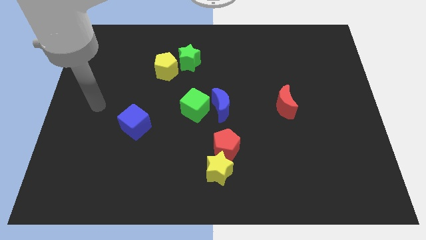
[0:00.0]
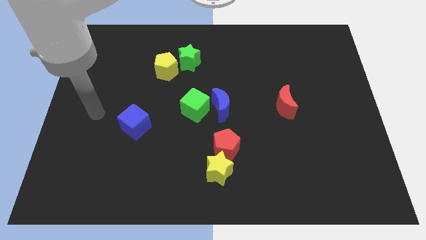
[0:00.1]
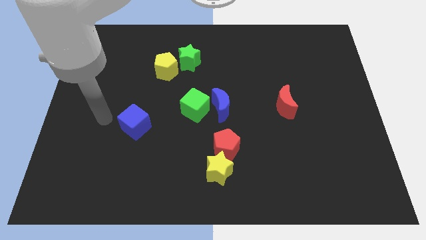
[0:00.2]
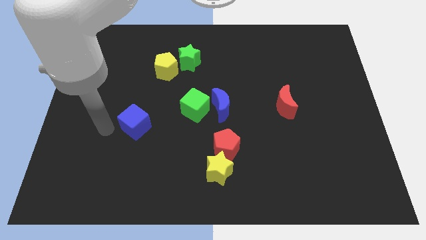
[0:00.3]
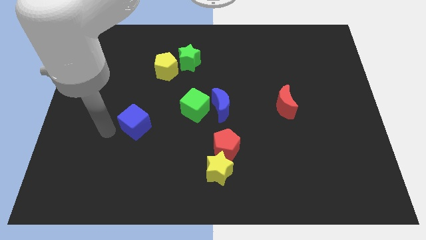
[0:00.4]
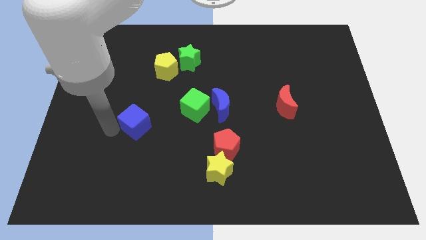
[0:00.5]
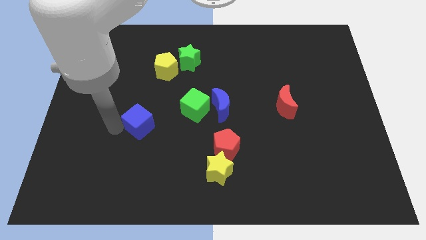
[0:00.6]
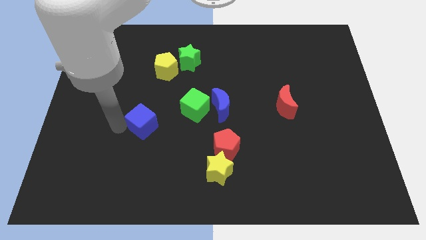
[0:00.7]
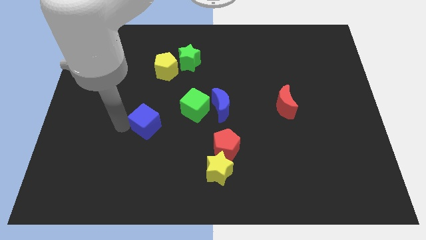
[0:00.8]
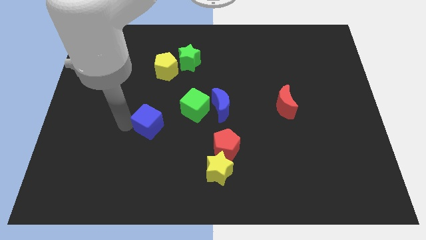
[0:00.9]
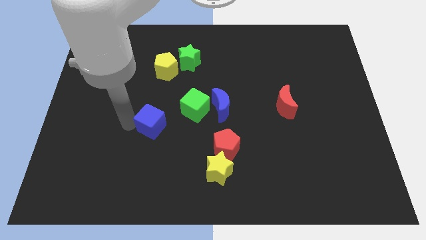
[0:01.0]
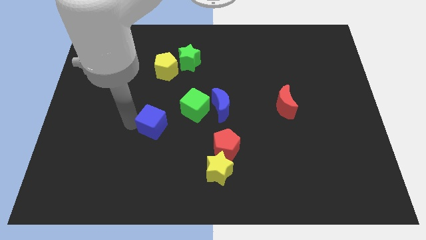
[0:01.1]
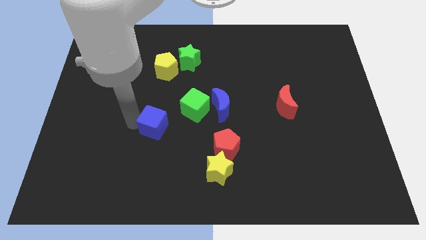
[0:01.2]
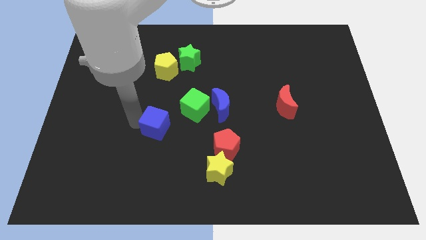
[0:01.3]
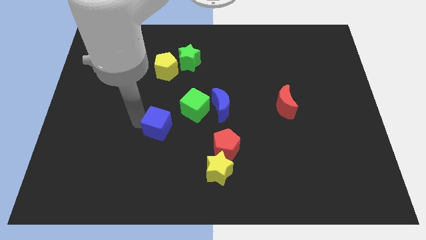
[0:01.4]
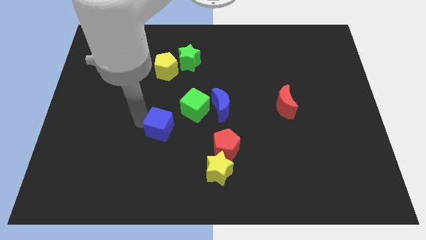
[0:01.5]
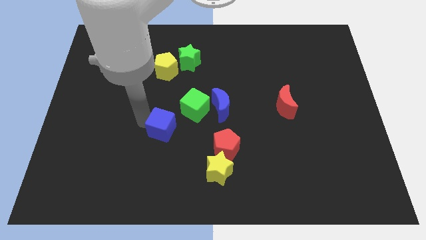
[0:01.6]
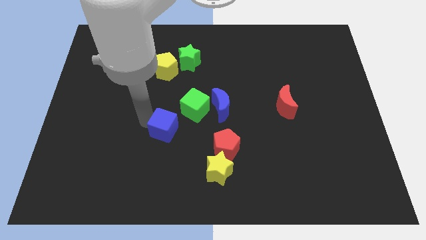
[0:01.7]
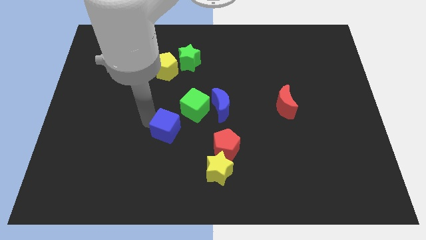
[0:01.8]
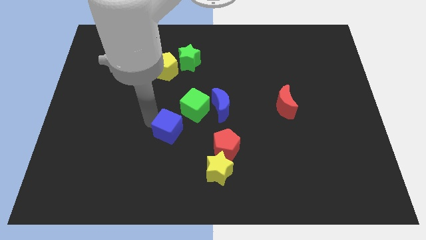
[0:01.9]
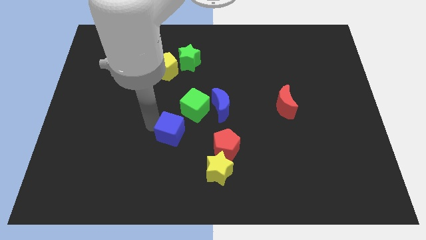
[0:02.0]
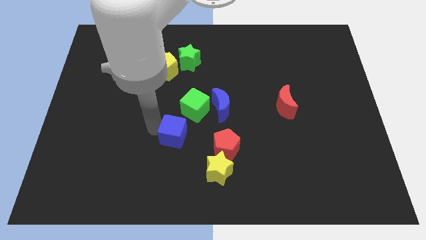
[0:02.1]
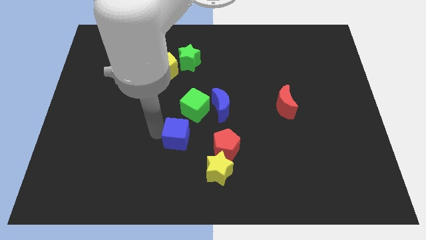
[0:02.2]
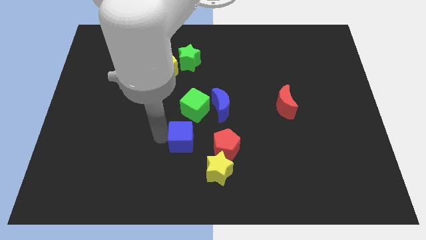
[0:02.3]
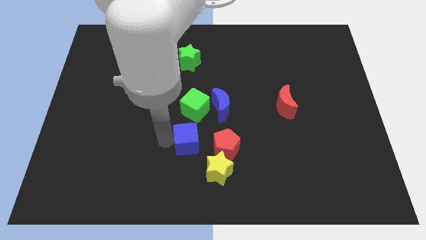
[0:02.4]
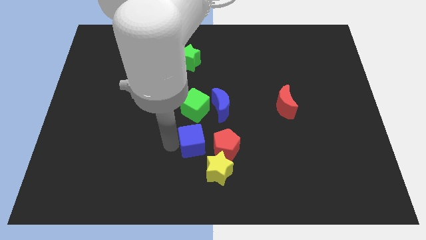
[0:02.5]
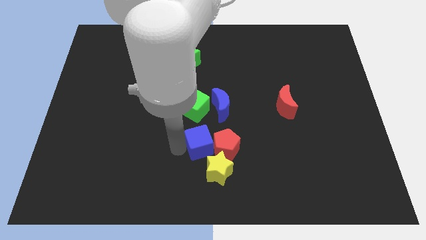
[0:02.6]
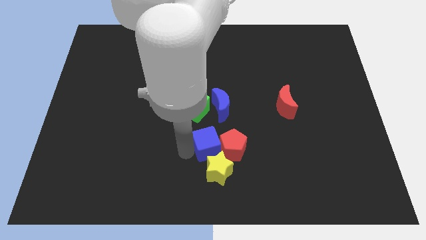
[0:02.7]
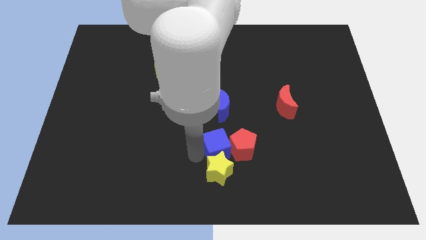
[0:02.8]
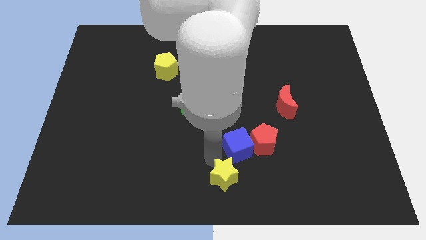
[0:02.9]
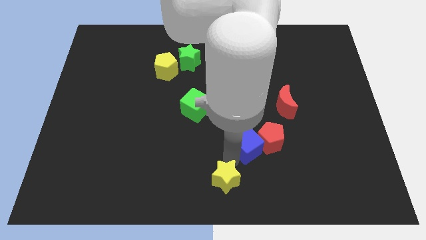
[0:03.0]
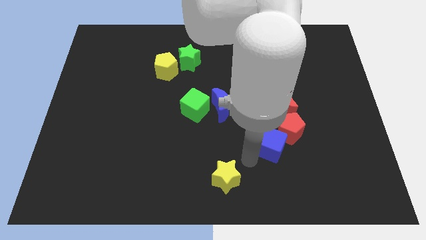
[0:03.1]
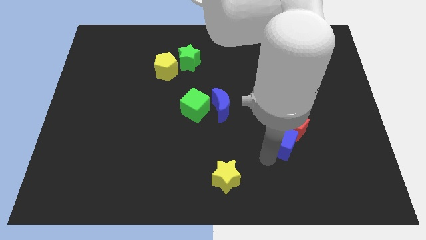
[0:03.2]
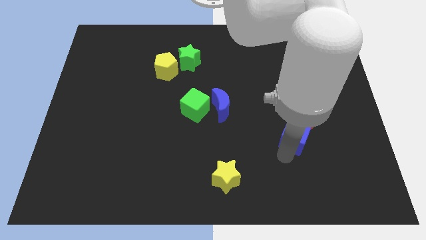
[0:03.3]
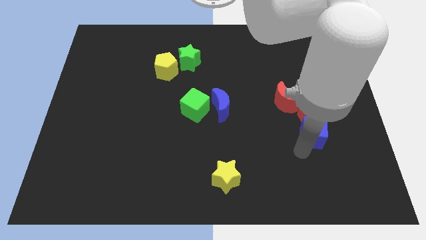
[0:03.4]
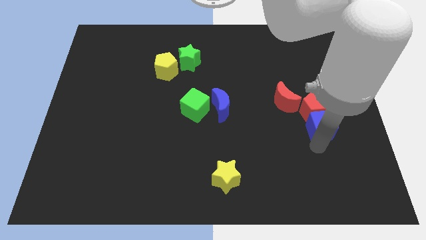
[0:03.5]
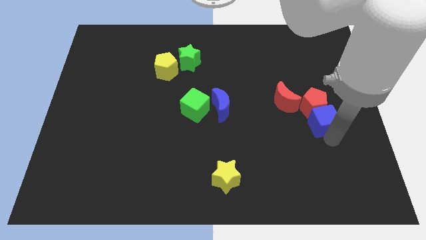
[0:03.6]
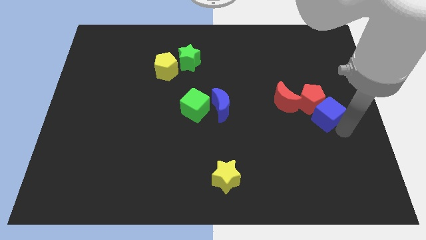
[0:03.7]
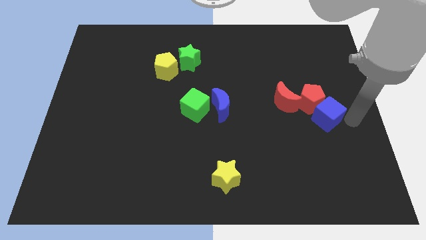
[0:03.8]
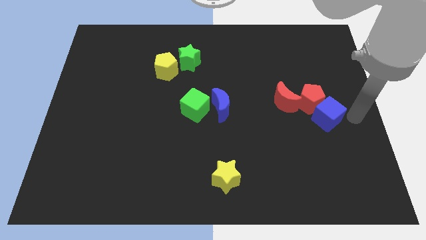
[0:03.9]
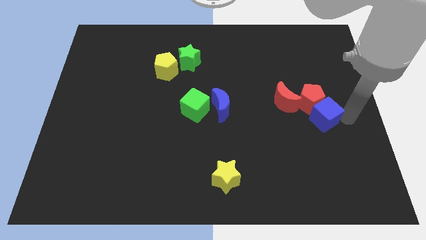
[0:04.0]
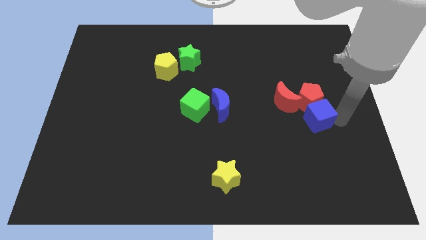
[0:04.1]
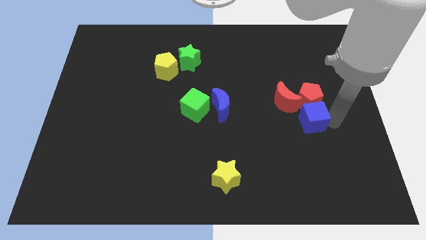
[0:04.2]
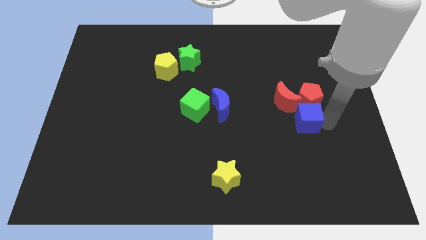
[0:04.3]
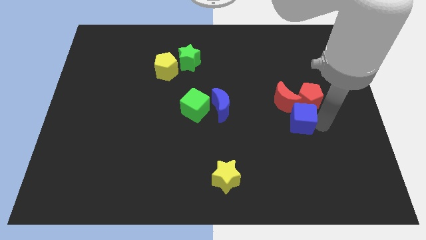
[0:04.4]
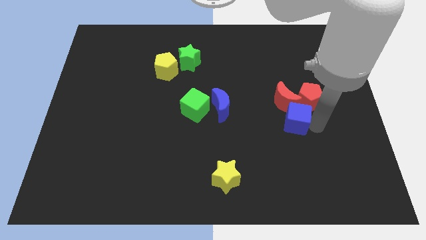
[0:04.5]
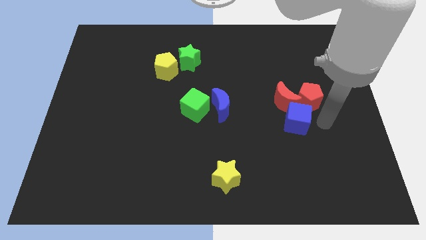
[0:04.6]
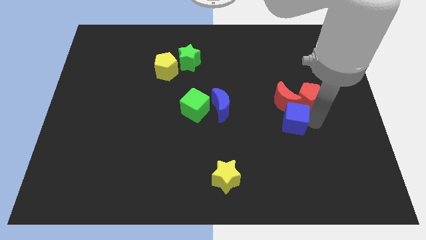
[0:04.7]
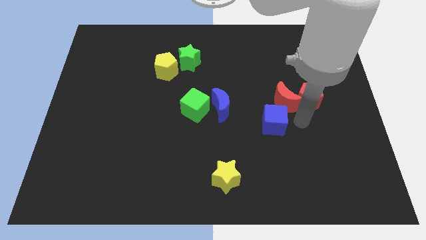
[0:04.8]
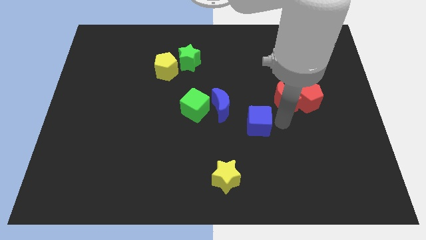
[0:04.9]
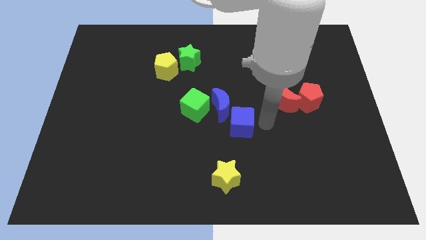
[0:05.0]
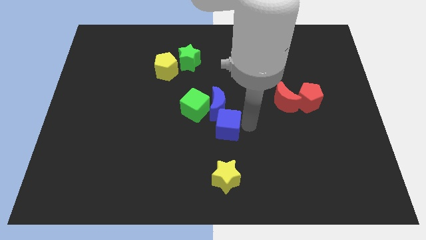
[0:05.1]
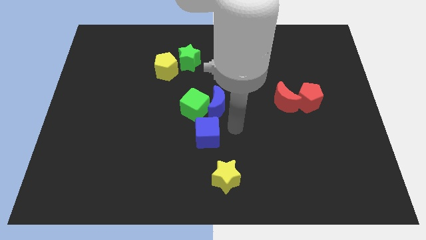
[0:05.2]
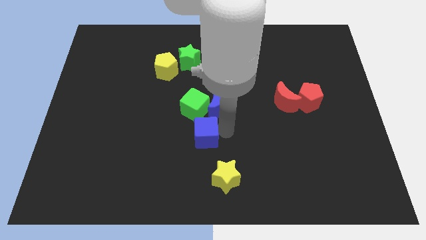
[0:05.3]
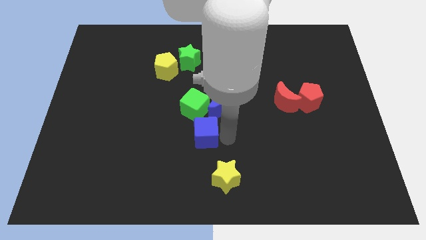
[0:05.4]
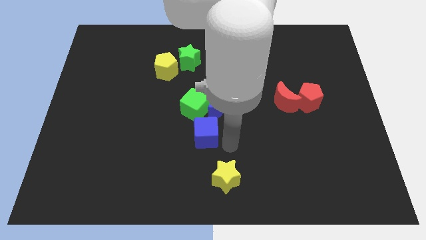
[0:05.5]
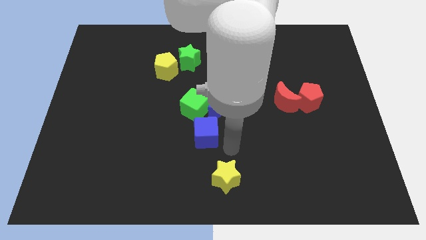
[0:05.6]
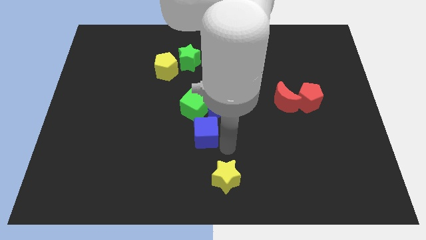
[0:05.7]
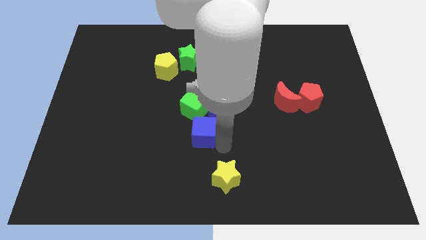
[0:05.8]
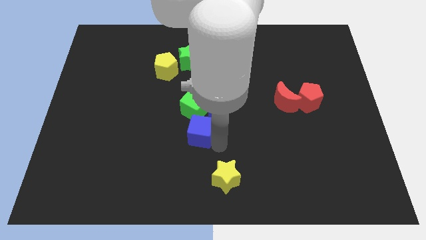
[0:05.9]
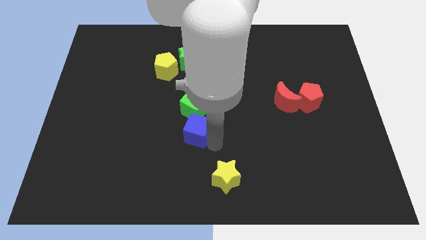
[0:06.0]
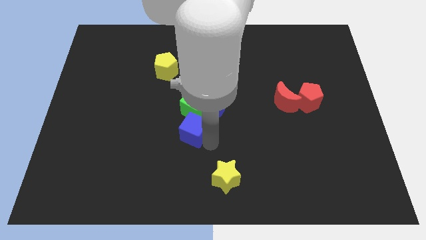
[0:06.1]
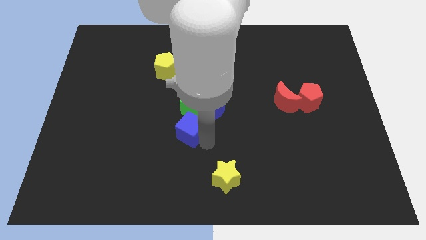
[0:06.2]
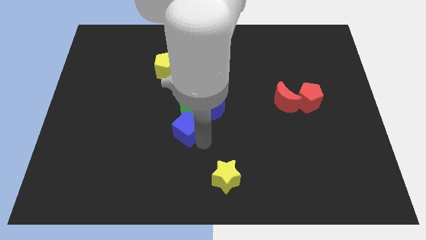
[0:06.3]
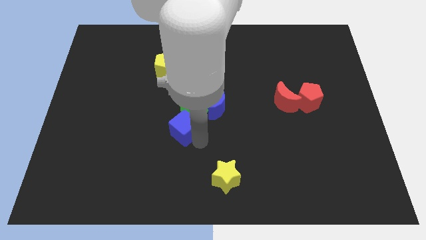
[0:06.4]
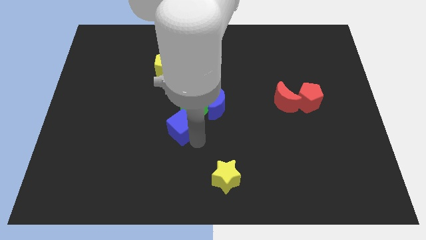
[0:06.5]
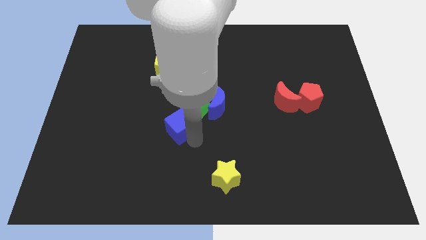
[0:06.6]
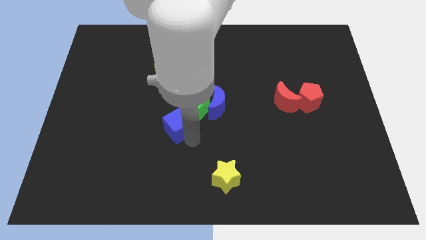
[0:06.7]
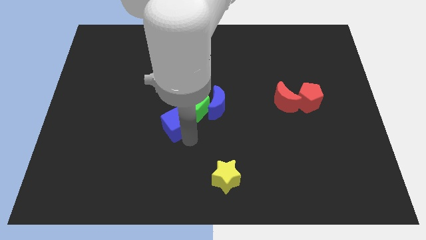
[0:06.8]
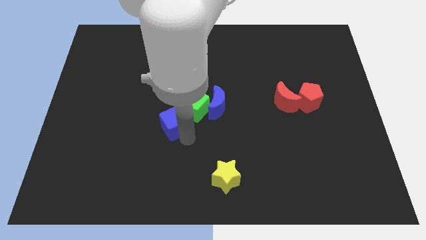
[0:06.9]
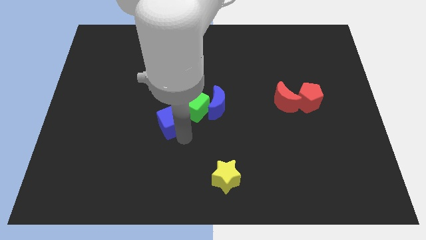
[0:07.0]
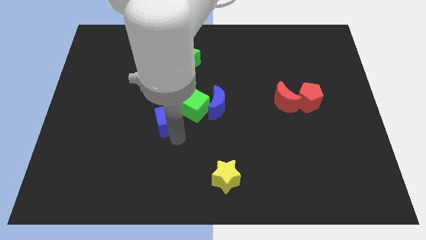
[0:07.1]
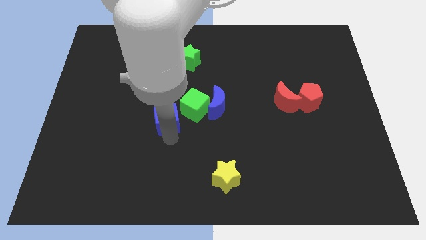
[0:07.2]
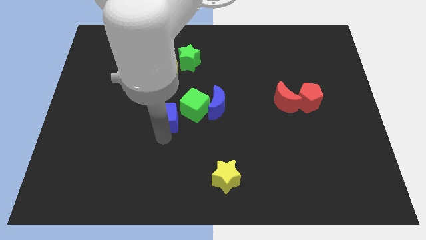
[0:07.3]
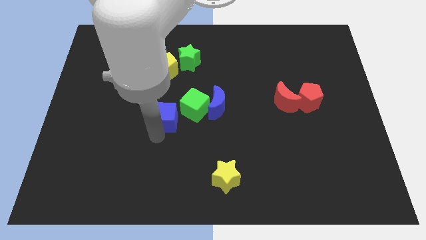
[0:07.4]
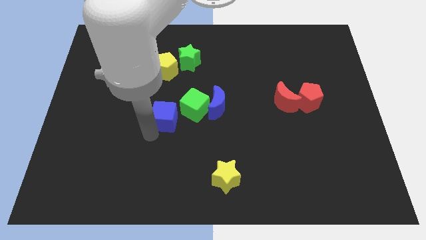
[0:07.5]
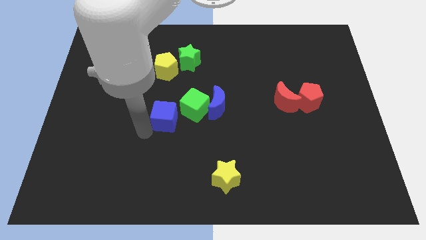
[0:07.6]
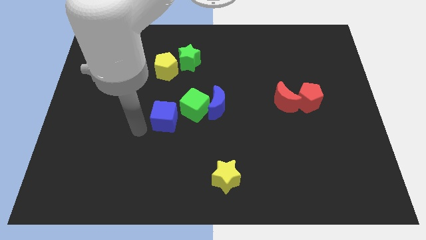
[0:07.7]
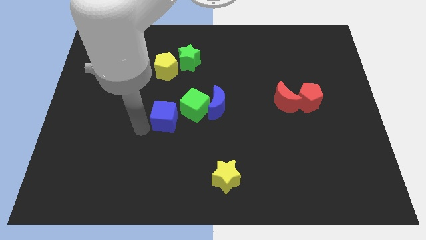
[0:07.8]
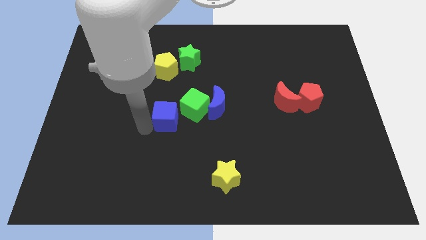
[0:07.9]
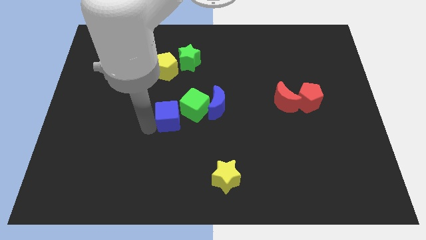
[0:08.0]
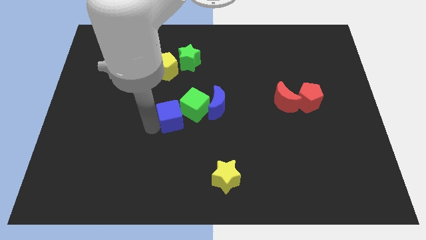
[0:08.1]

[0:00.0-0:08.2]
move the blue cube to the green cube
